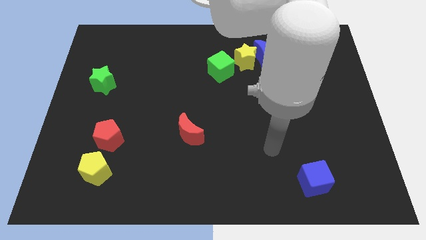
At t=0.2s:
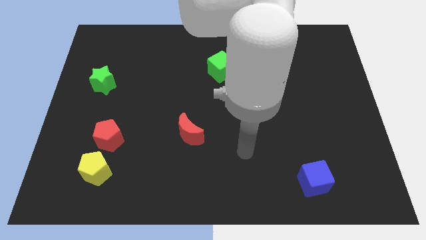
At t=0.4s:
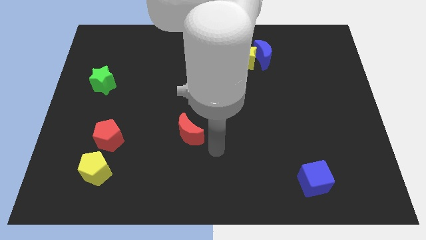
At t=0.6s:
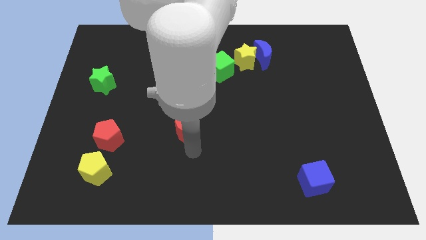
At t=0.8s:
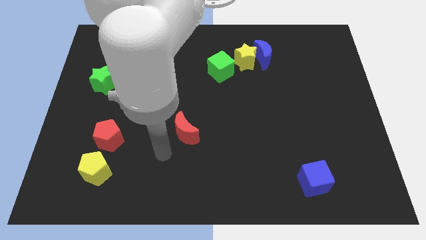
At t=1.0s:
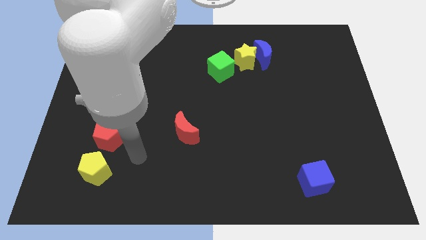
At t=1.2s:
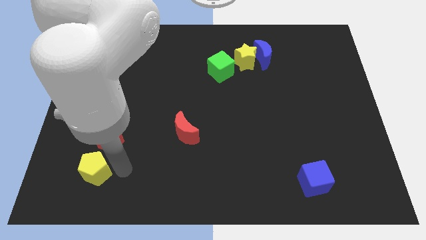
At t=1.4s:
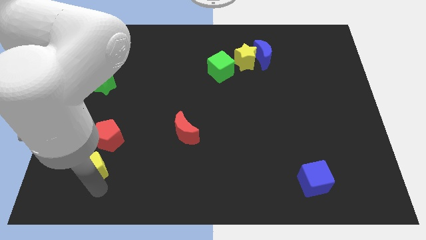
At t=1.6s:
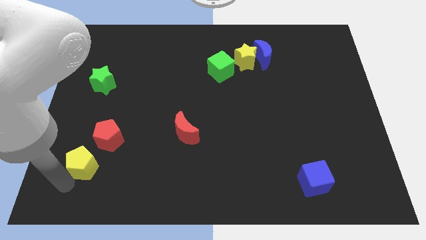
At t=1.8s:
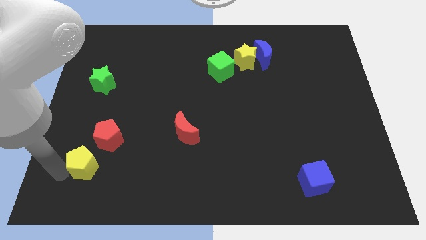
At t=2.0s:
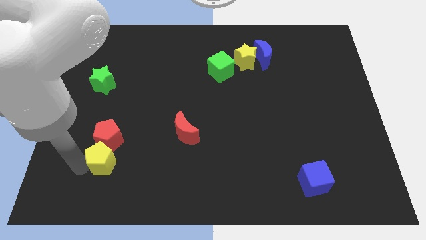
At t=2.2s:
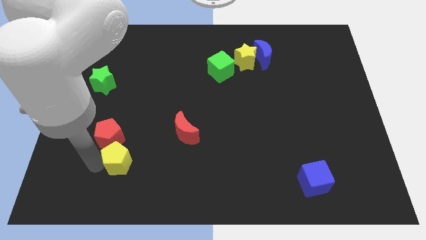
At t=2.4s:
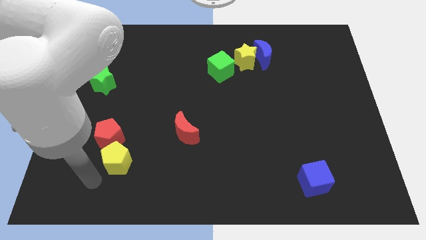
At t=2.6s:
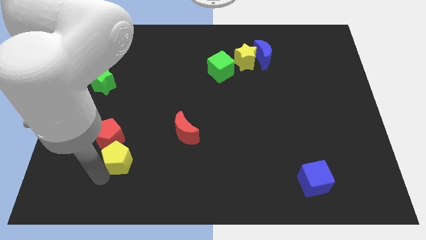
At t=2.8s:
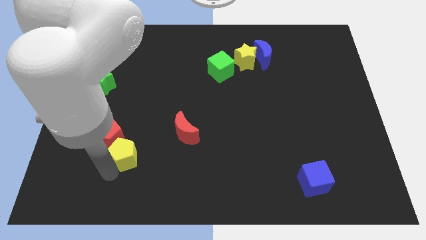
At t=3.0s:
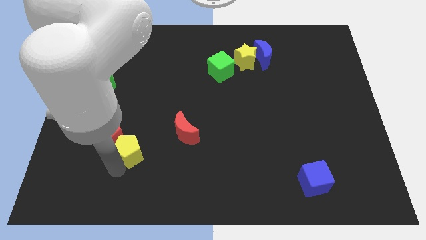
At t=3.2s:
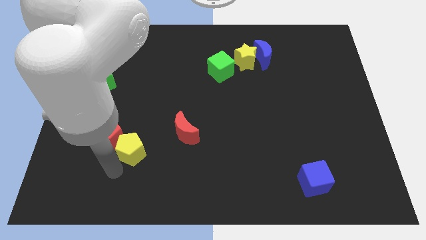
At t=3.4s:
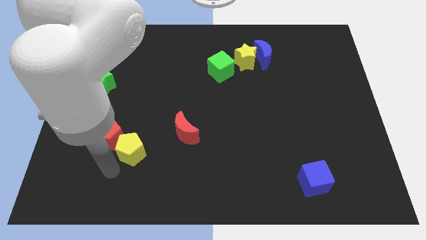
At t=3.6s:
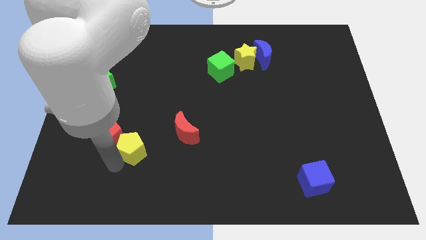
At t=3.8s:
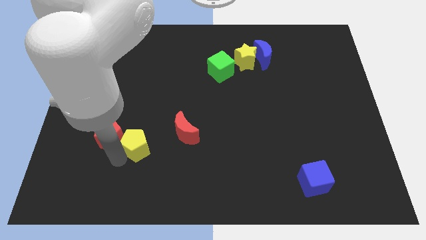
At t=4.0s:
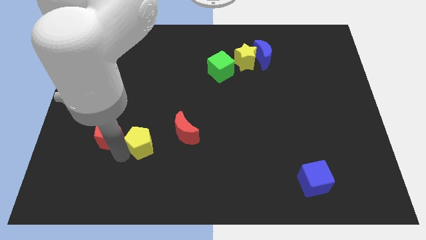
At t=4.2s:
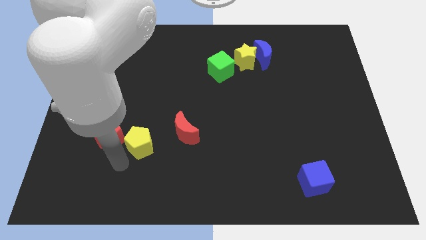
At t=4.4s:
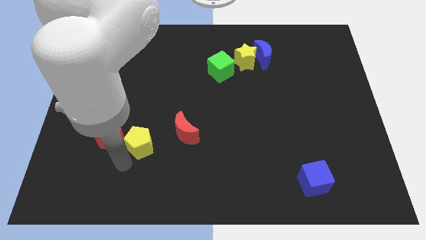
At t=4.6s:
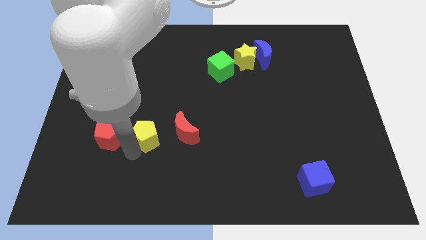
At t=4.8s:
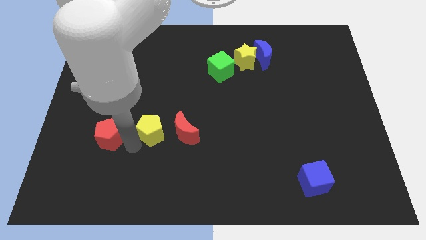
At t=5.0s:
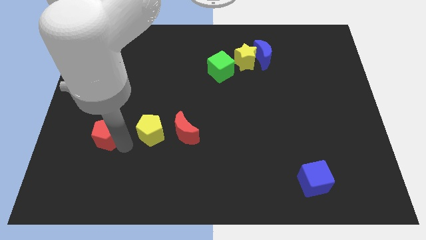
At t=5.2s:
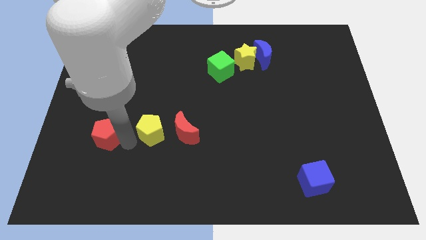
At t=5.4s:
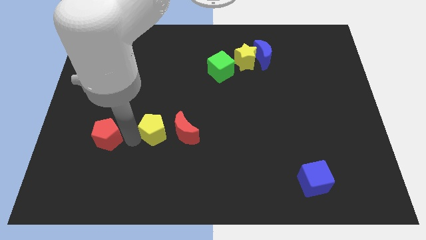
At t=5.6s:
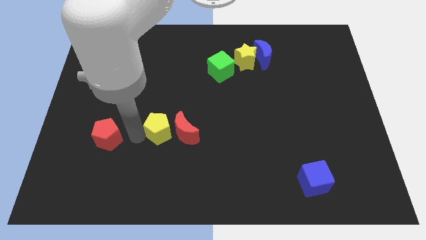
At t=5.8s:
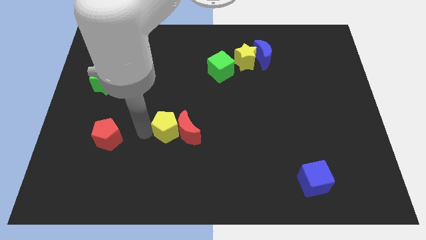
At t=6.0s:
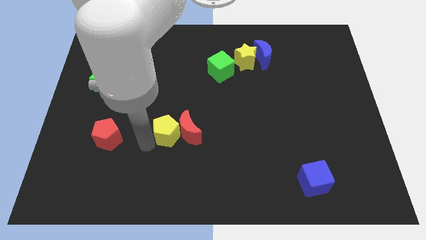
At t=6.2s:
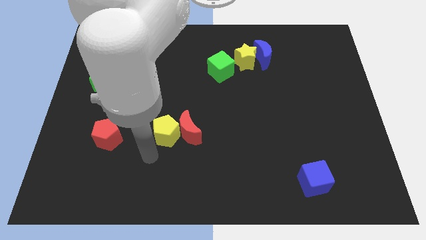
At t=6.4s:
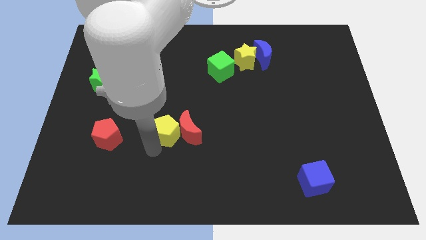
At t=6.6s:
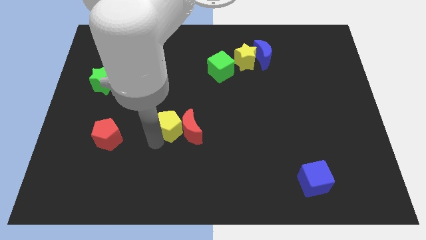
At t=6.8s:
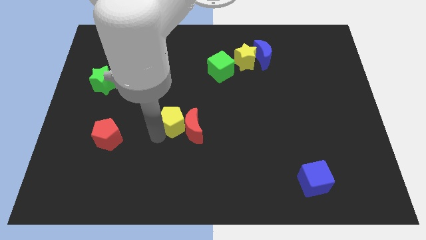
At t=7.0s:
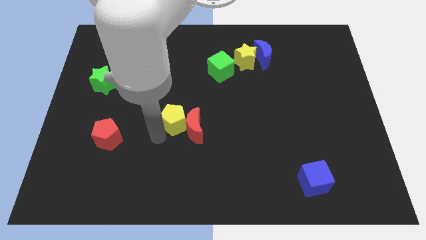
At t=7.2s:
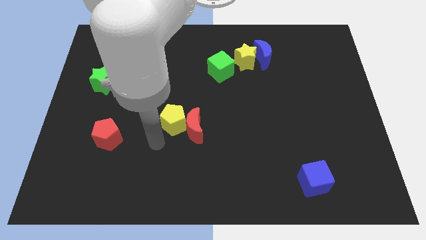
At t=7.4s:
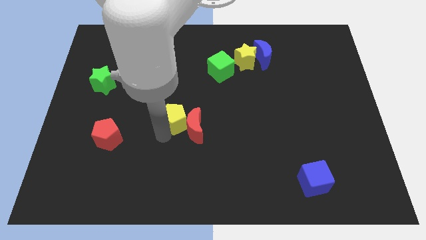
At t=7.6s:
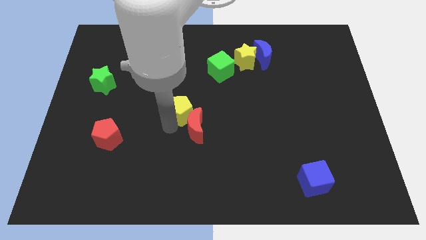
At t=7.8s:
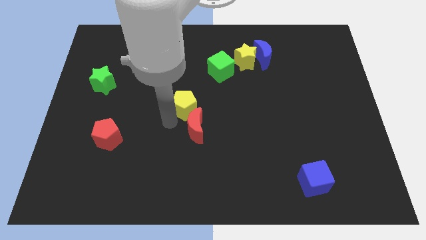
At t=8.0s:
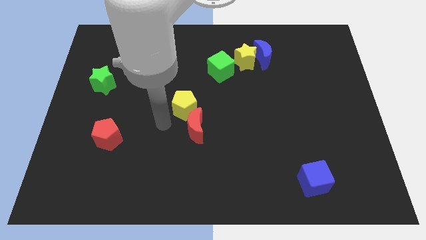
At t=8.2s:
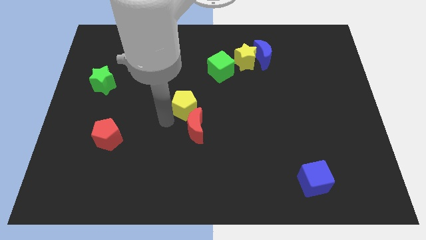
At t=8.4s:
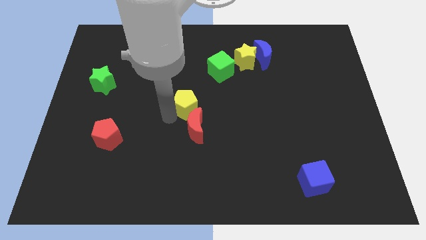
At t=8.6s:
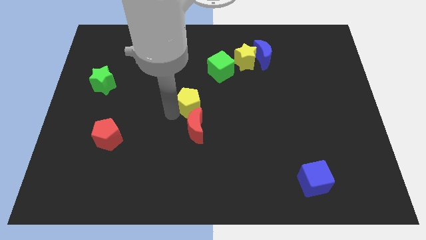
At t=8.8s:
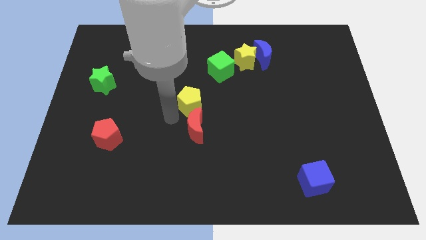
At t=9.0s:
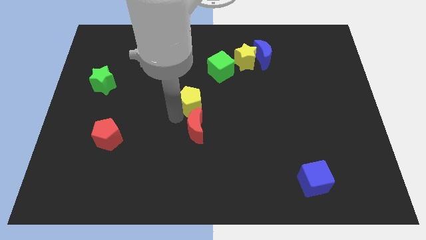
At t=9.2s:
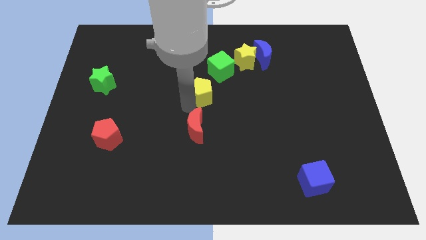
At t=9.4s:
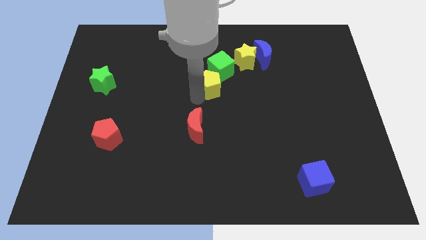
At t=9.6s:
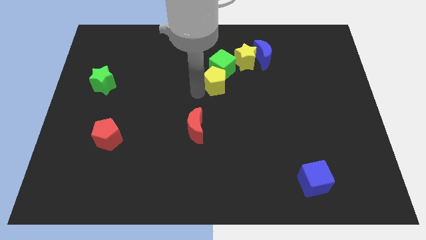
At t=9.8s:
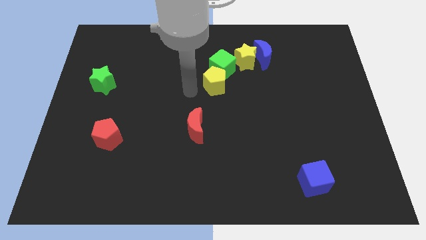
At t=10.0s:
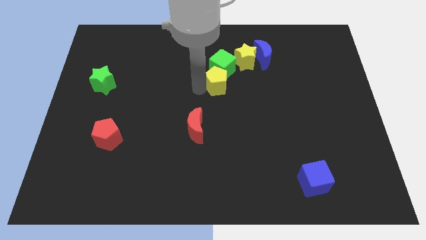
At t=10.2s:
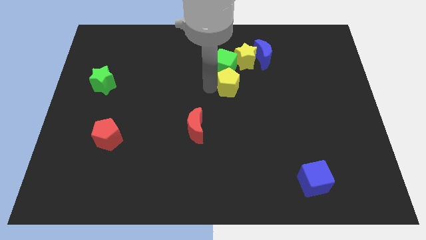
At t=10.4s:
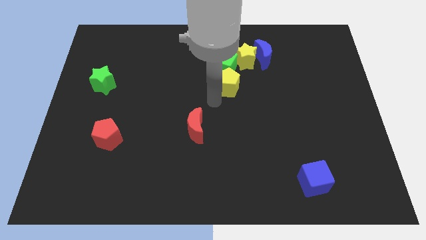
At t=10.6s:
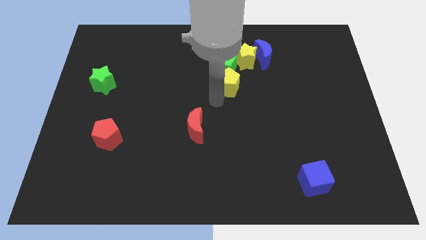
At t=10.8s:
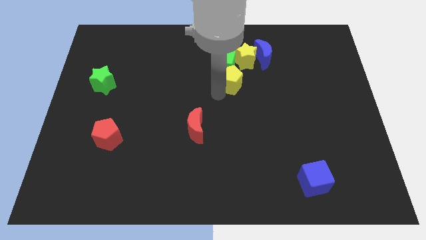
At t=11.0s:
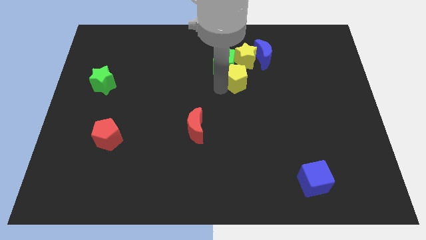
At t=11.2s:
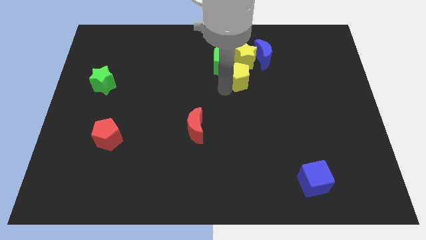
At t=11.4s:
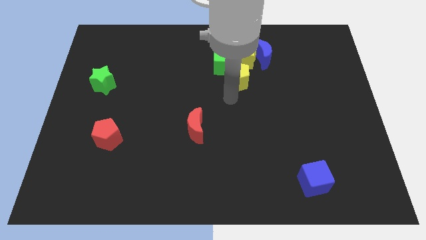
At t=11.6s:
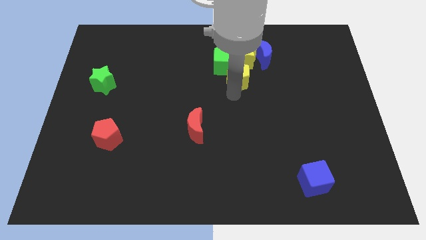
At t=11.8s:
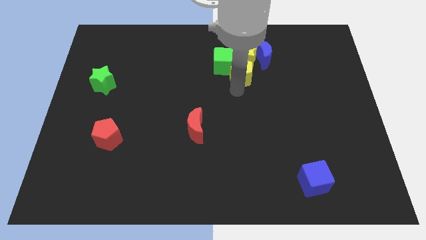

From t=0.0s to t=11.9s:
move the yellow pentagon to the yellow star

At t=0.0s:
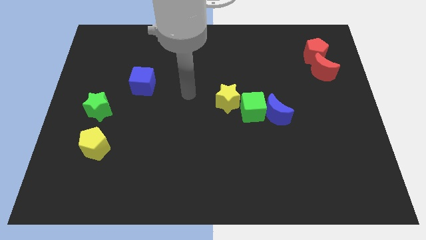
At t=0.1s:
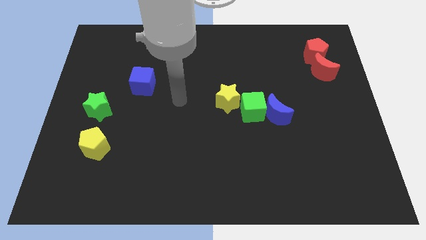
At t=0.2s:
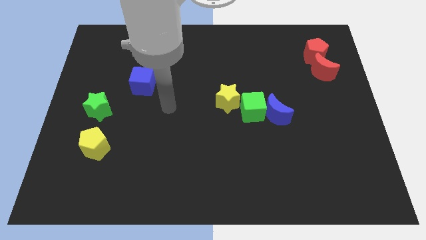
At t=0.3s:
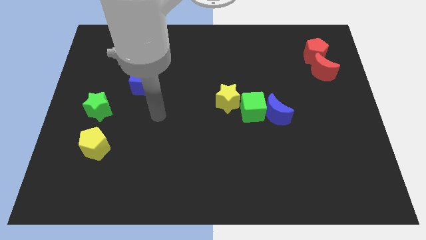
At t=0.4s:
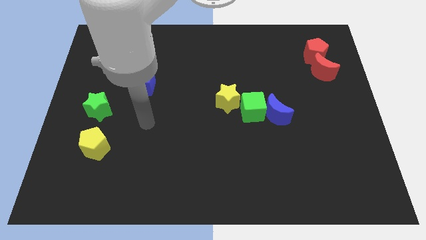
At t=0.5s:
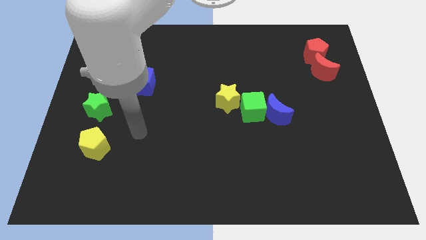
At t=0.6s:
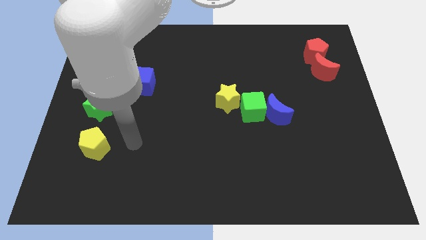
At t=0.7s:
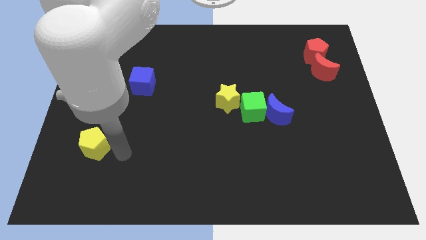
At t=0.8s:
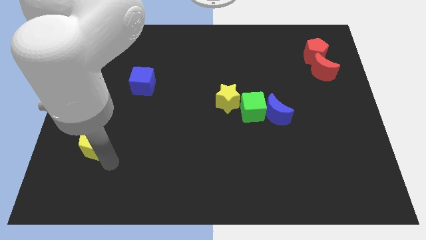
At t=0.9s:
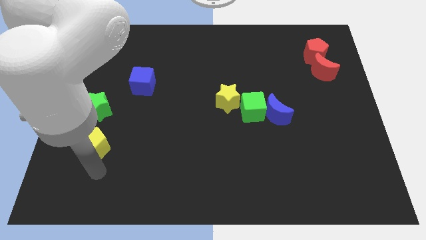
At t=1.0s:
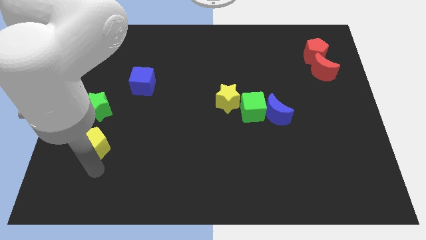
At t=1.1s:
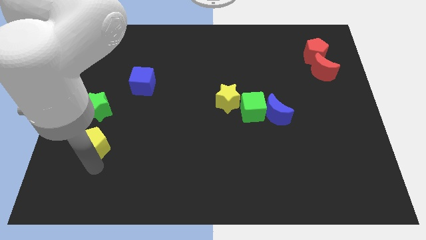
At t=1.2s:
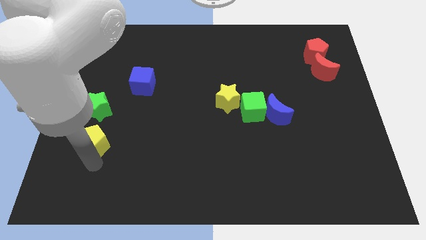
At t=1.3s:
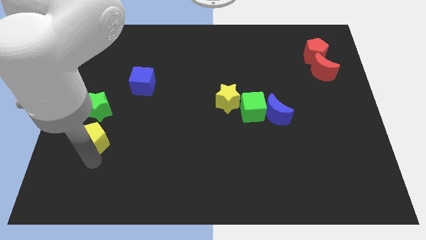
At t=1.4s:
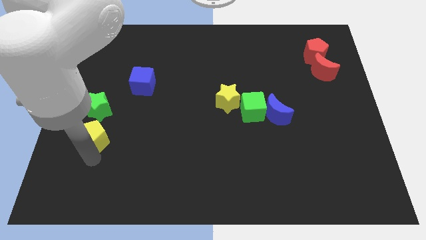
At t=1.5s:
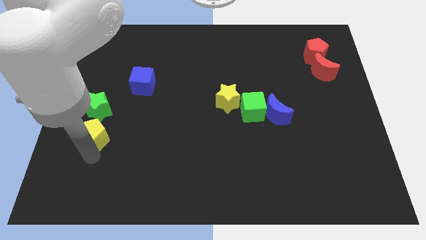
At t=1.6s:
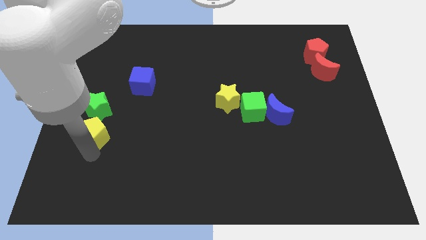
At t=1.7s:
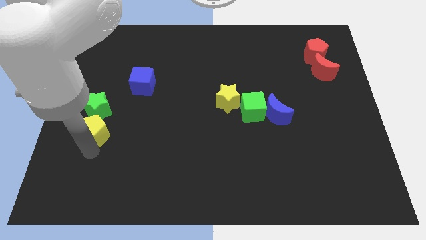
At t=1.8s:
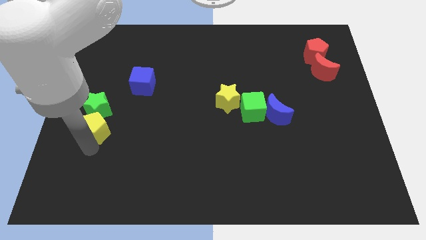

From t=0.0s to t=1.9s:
put the yellow pentagon to the green star

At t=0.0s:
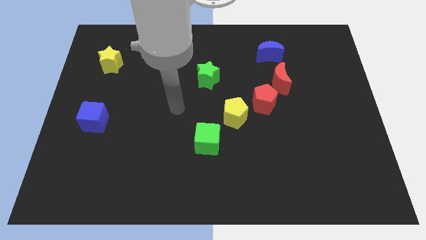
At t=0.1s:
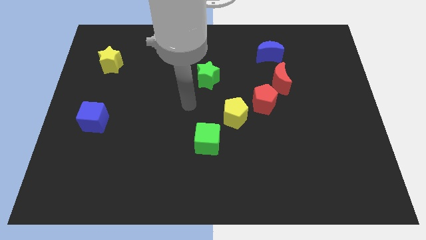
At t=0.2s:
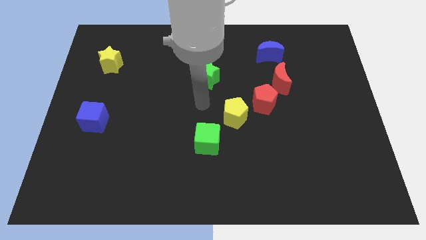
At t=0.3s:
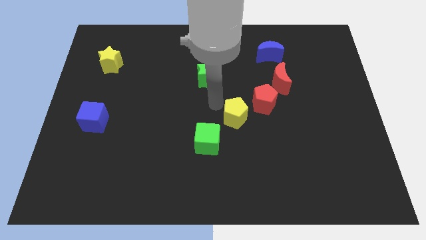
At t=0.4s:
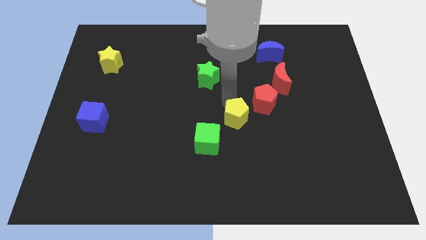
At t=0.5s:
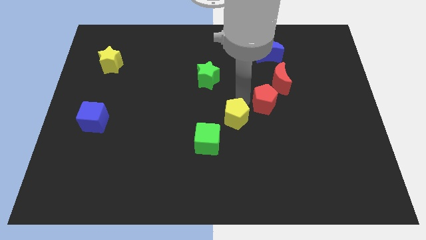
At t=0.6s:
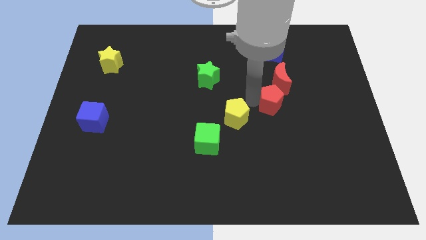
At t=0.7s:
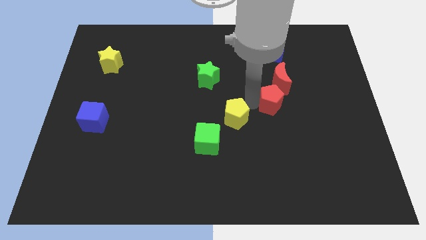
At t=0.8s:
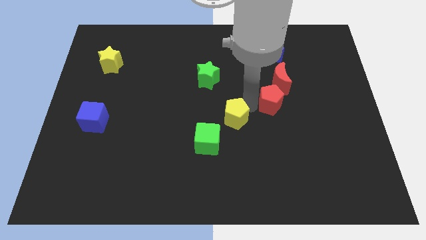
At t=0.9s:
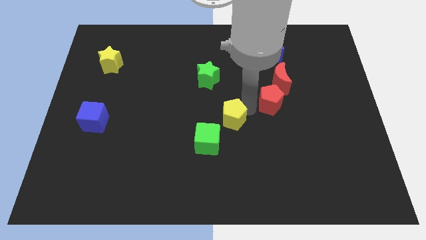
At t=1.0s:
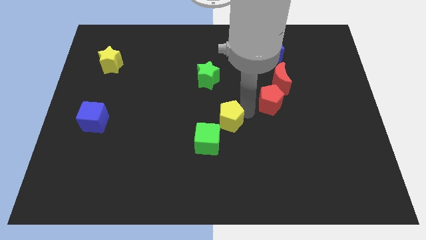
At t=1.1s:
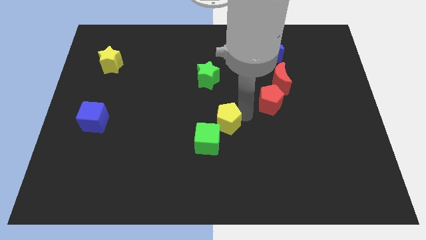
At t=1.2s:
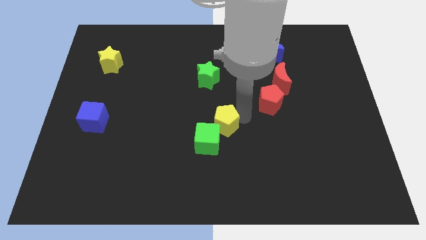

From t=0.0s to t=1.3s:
move the yellow pentagon next to the green cube
